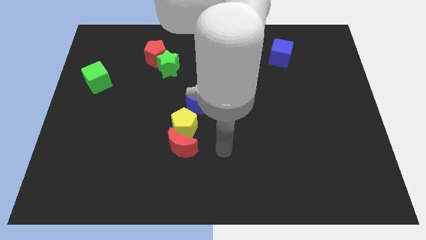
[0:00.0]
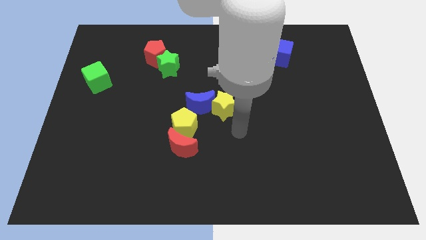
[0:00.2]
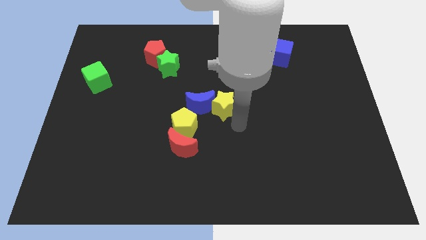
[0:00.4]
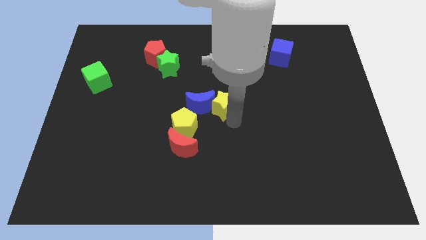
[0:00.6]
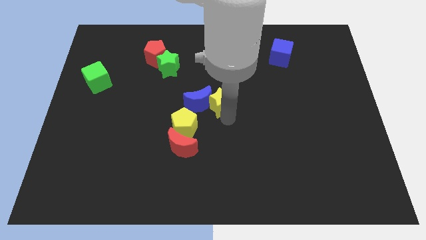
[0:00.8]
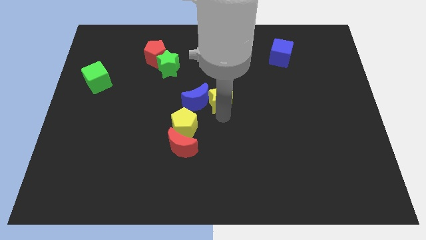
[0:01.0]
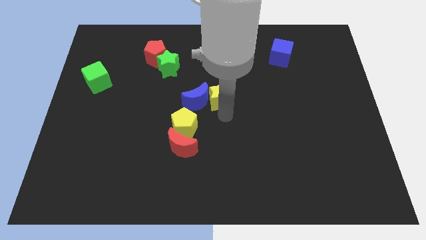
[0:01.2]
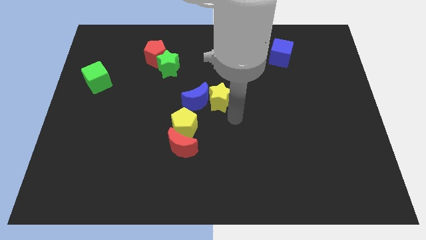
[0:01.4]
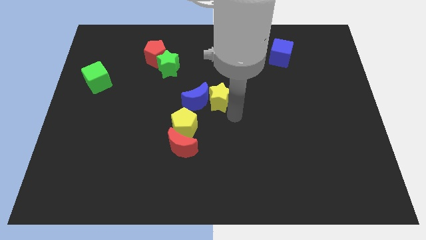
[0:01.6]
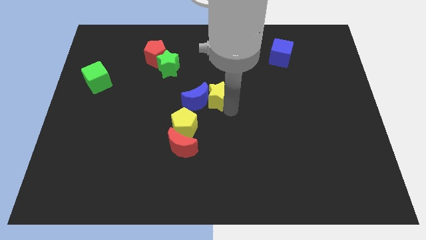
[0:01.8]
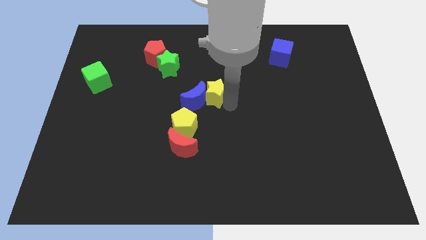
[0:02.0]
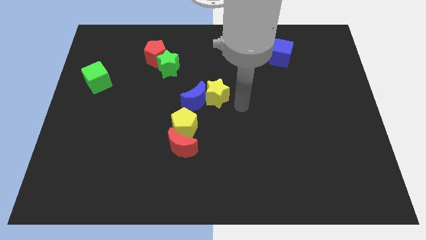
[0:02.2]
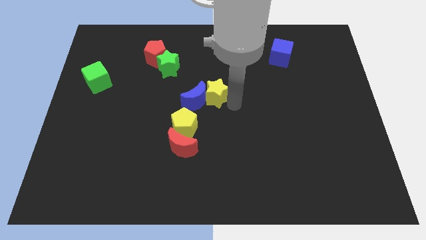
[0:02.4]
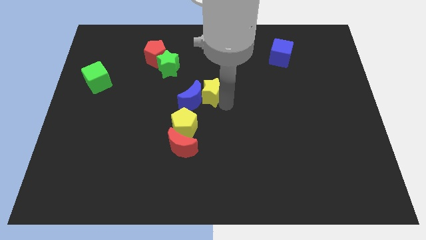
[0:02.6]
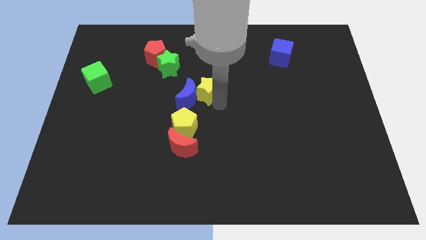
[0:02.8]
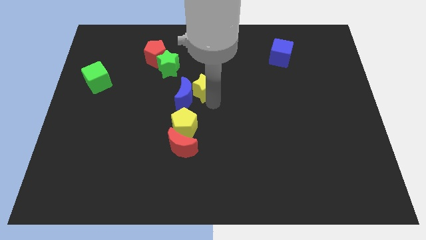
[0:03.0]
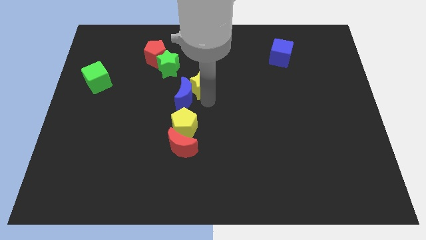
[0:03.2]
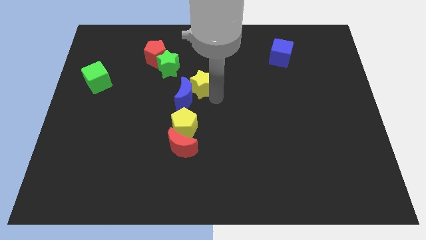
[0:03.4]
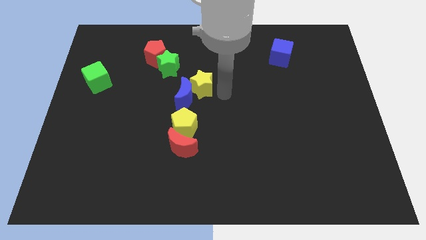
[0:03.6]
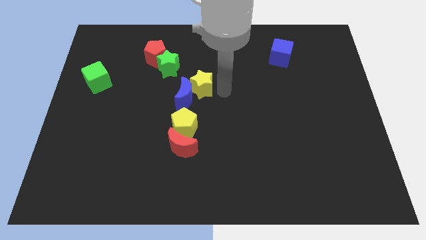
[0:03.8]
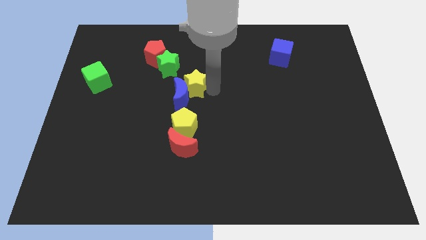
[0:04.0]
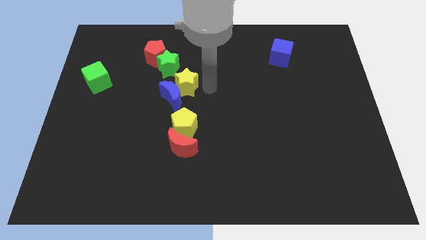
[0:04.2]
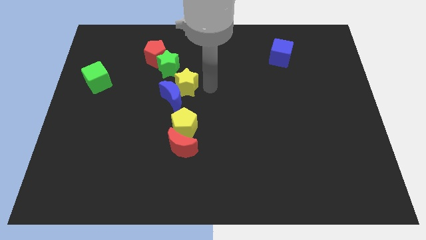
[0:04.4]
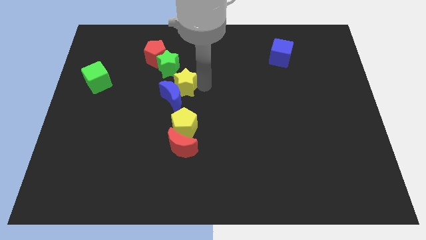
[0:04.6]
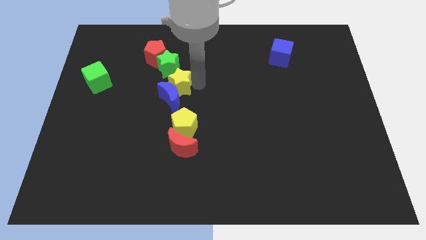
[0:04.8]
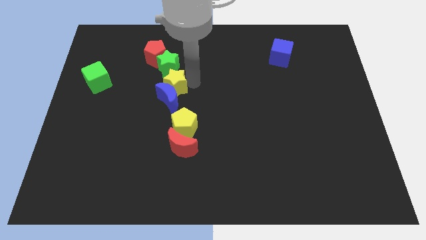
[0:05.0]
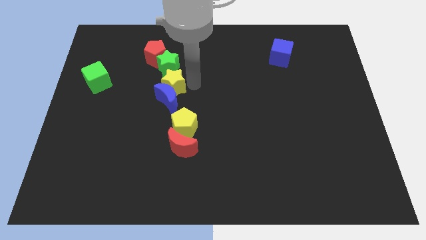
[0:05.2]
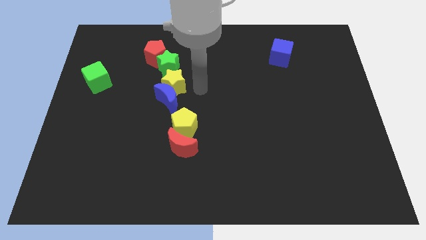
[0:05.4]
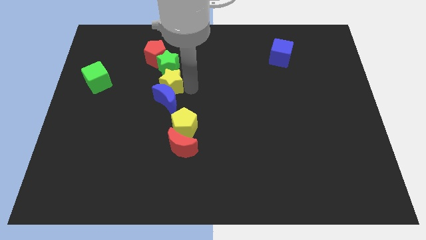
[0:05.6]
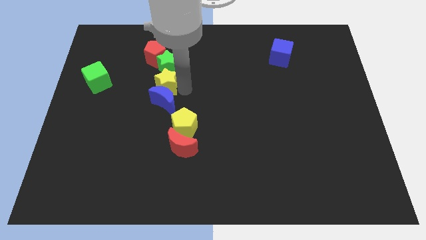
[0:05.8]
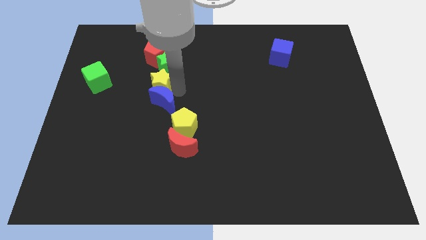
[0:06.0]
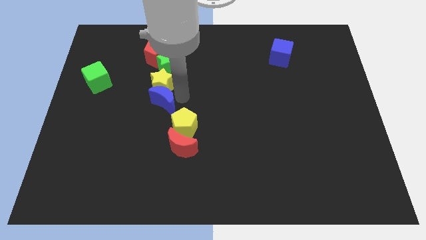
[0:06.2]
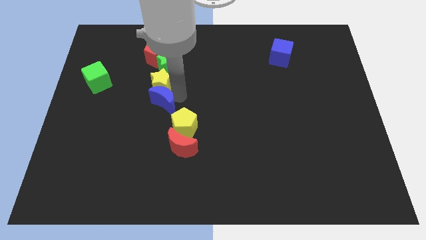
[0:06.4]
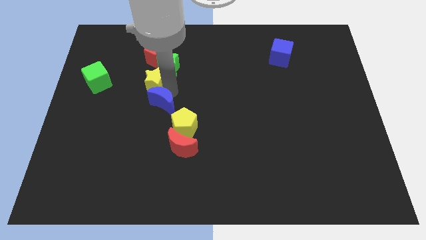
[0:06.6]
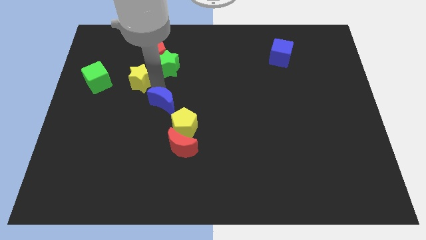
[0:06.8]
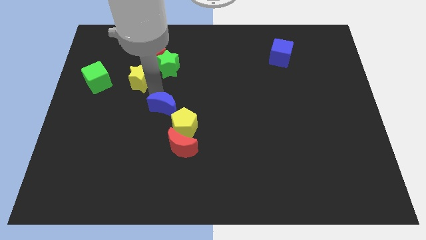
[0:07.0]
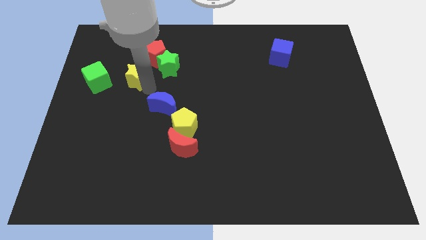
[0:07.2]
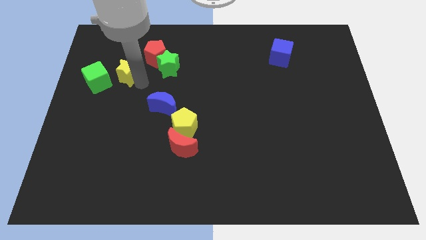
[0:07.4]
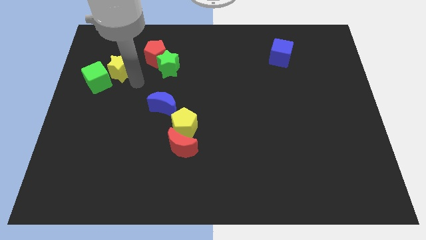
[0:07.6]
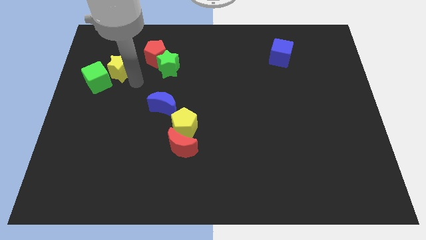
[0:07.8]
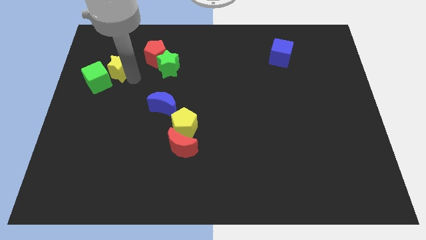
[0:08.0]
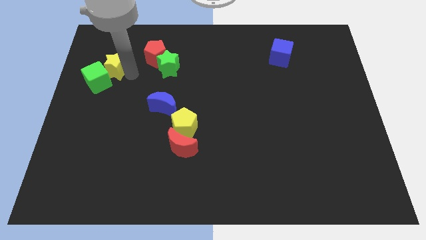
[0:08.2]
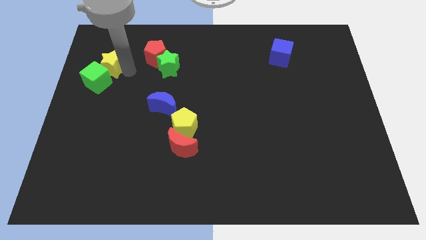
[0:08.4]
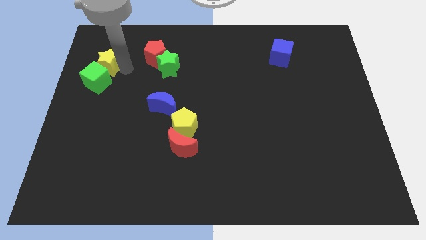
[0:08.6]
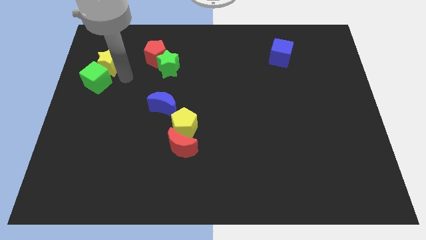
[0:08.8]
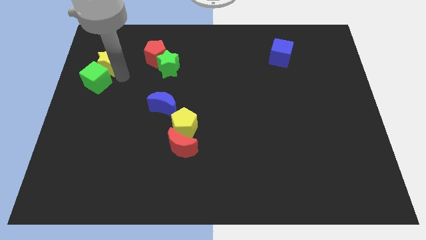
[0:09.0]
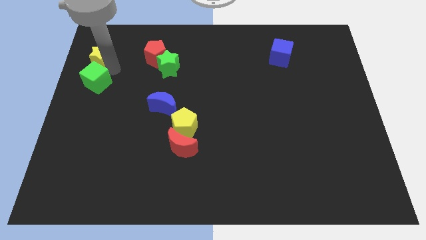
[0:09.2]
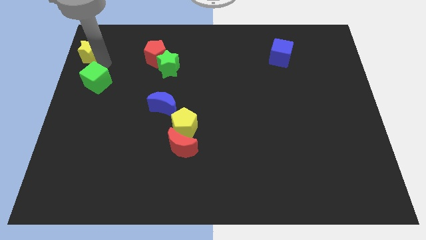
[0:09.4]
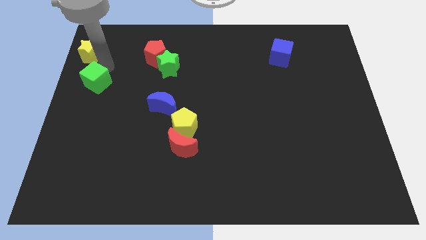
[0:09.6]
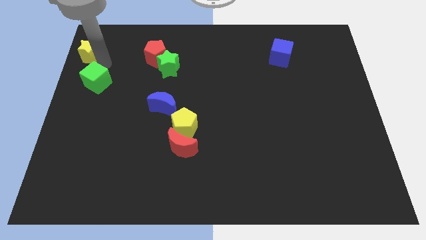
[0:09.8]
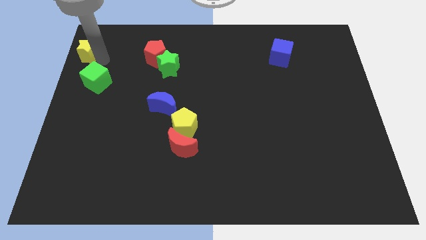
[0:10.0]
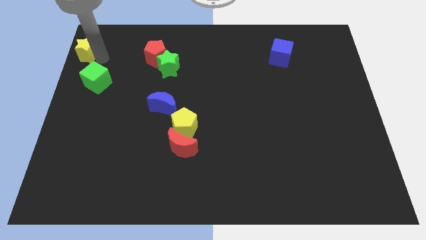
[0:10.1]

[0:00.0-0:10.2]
put the yellow star to the upper left corner

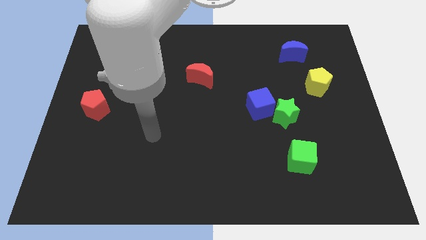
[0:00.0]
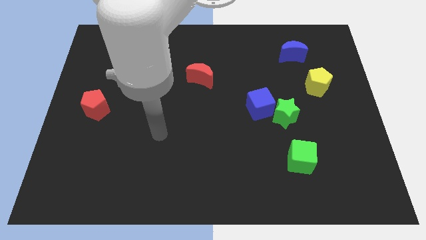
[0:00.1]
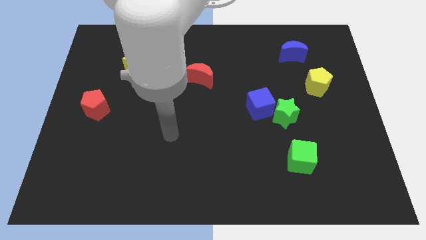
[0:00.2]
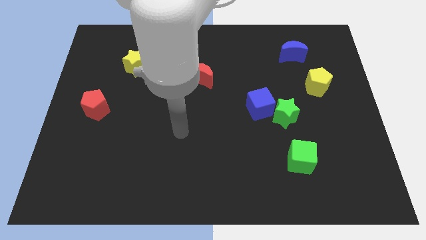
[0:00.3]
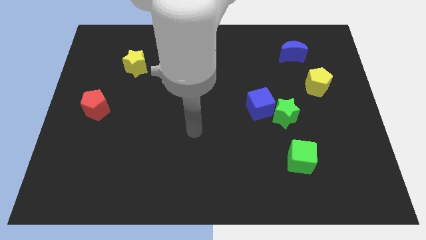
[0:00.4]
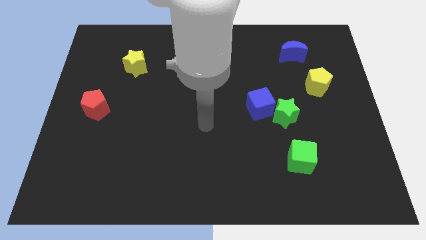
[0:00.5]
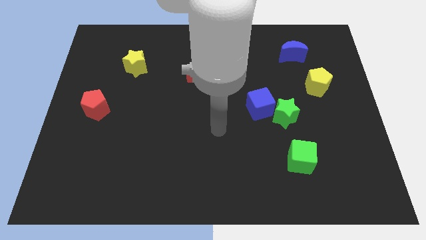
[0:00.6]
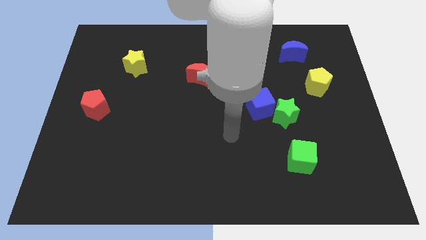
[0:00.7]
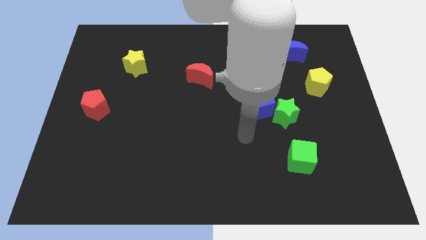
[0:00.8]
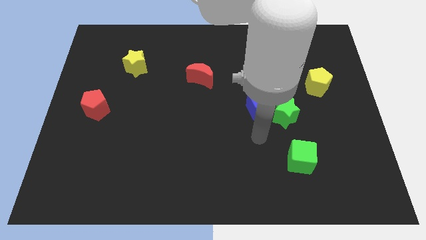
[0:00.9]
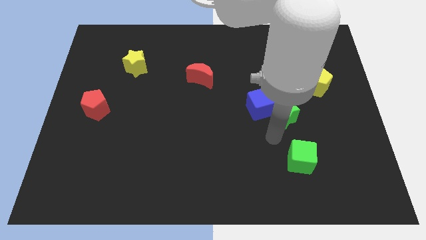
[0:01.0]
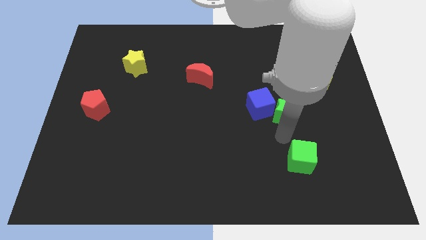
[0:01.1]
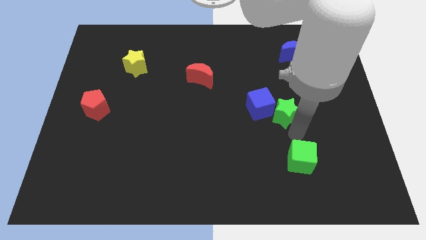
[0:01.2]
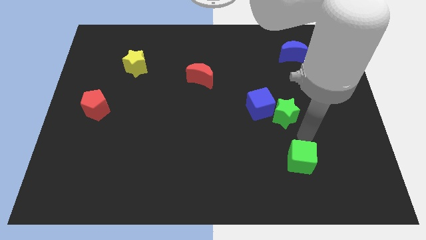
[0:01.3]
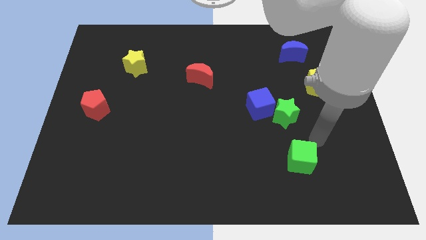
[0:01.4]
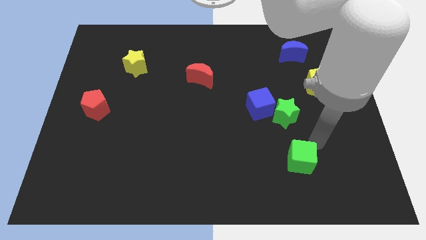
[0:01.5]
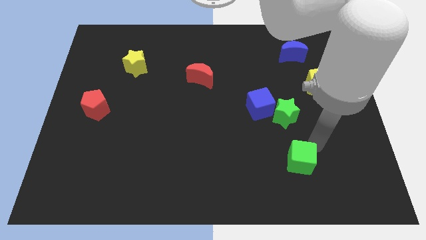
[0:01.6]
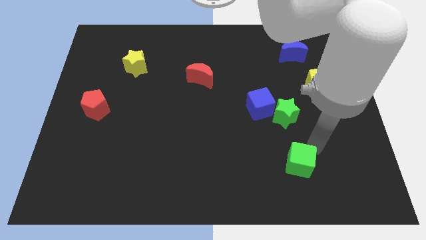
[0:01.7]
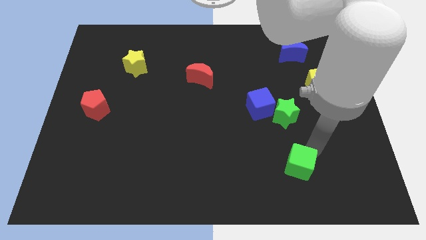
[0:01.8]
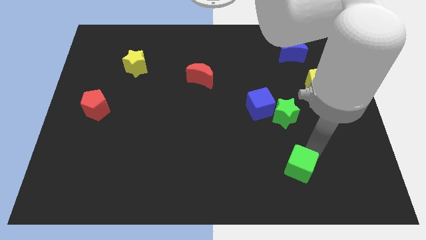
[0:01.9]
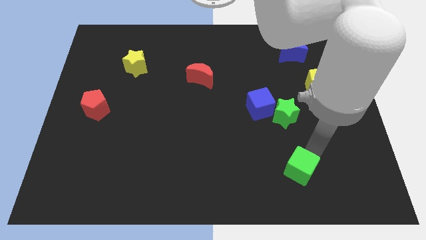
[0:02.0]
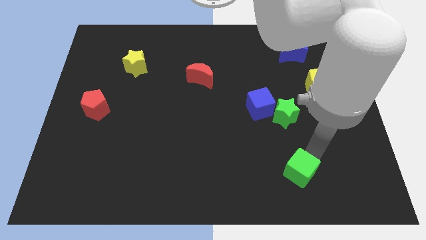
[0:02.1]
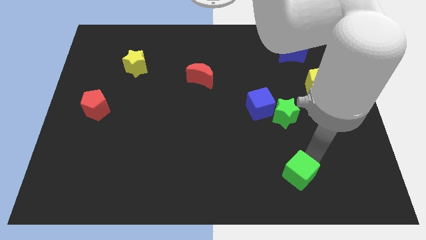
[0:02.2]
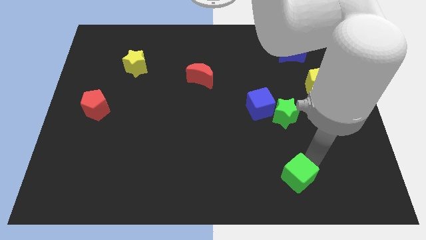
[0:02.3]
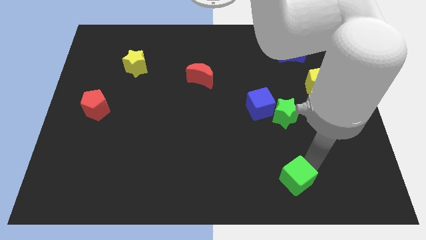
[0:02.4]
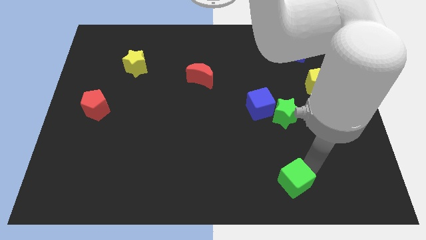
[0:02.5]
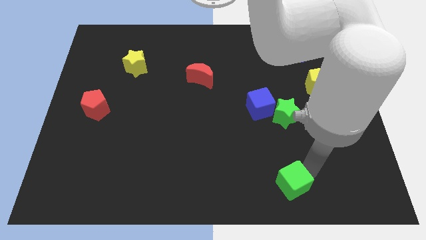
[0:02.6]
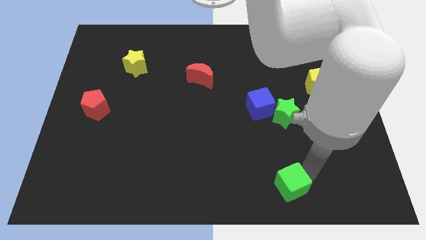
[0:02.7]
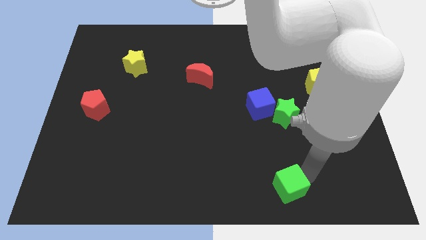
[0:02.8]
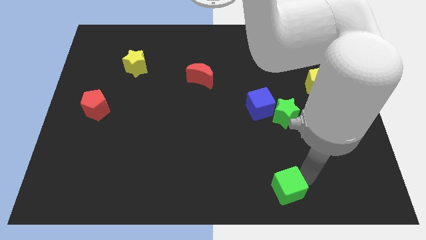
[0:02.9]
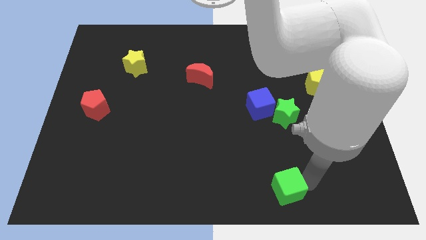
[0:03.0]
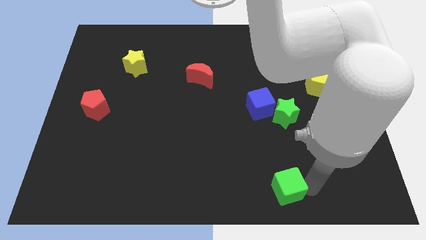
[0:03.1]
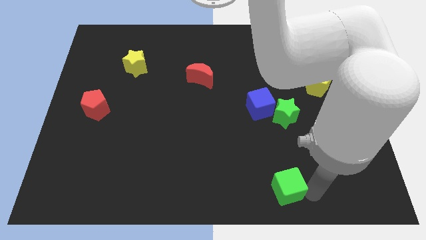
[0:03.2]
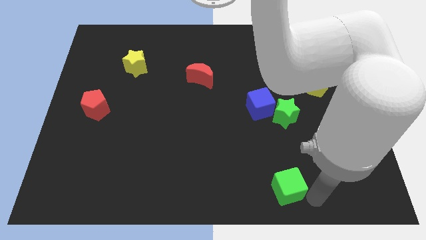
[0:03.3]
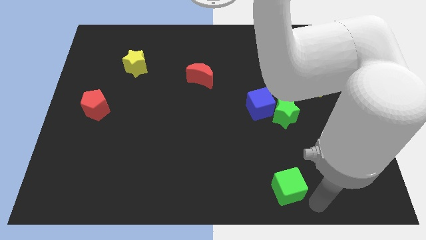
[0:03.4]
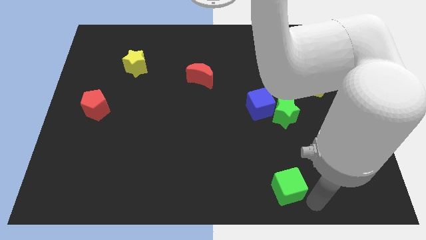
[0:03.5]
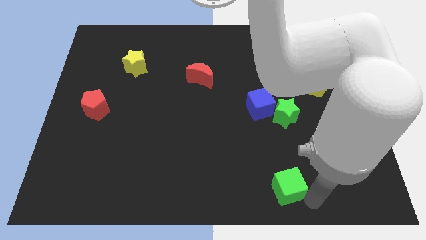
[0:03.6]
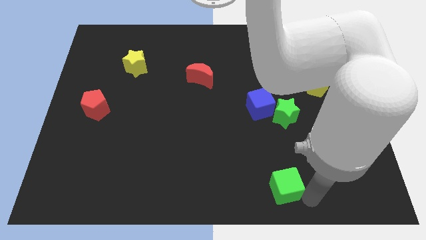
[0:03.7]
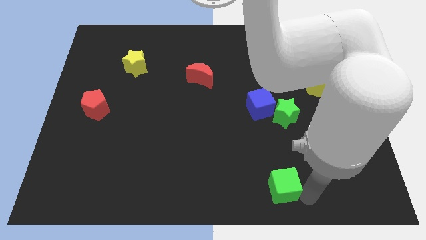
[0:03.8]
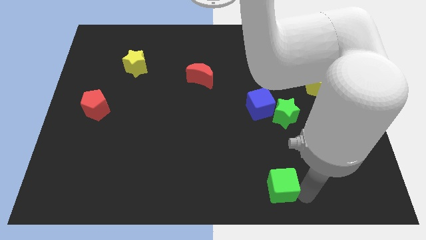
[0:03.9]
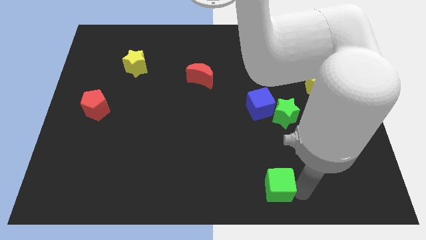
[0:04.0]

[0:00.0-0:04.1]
slide the green cube to the bottom
